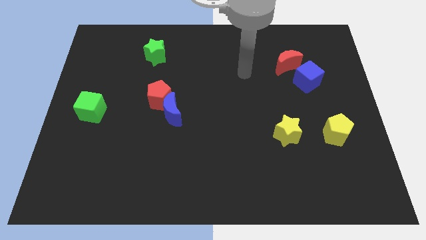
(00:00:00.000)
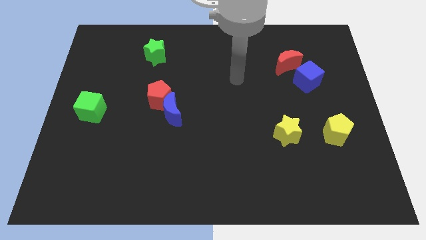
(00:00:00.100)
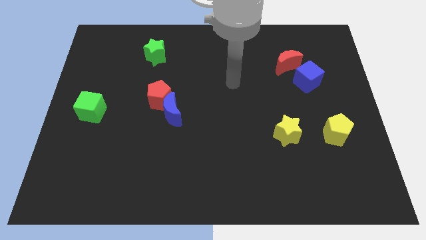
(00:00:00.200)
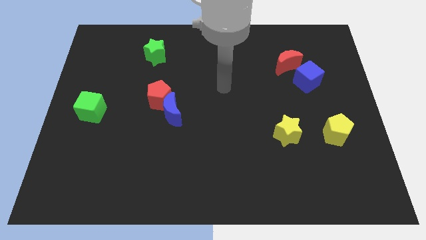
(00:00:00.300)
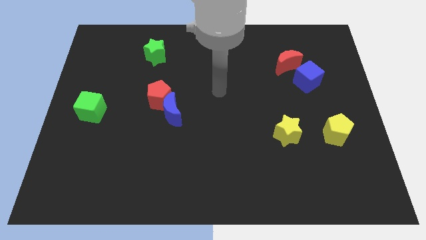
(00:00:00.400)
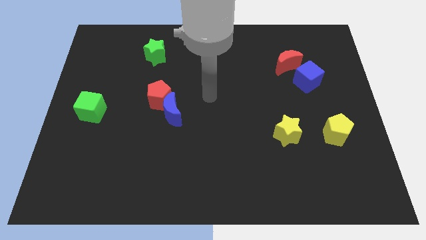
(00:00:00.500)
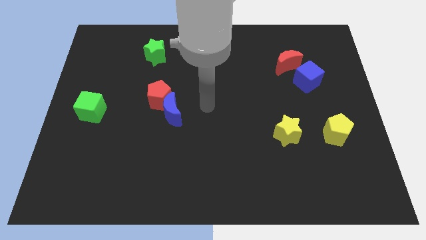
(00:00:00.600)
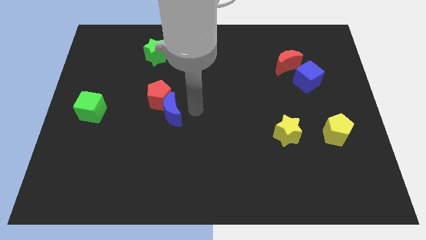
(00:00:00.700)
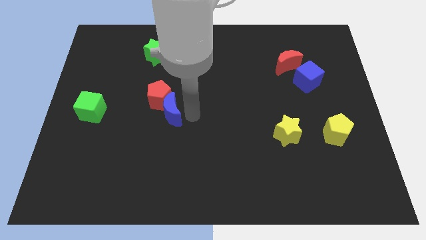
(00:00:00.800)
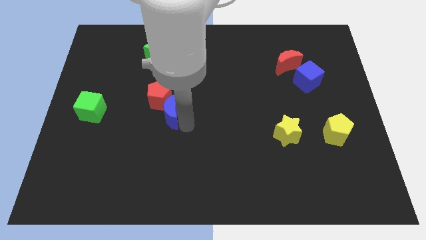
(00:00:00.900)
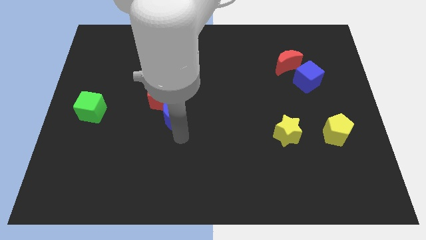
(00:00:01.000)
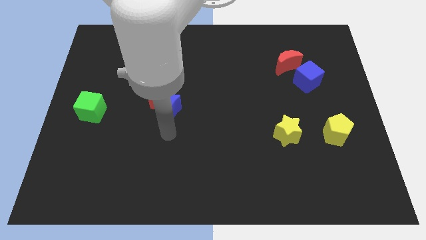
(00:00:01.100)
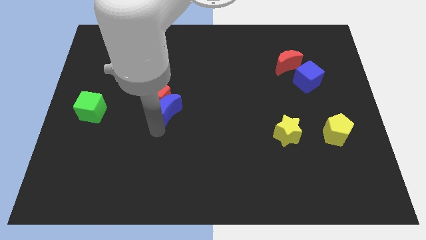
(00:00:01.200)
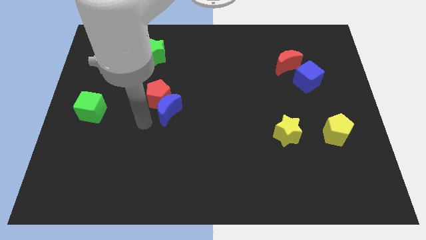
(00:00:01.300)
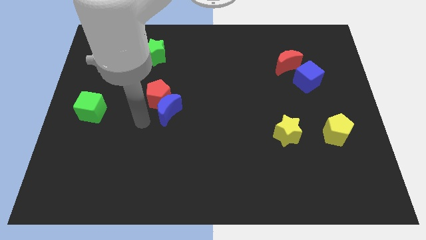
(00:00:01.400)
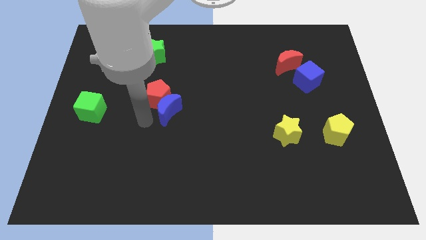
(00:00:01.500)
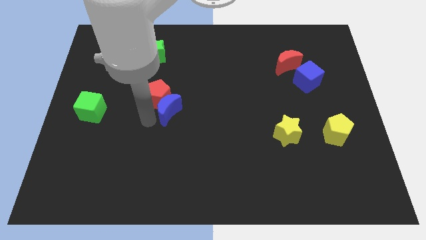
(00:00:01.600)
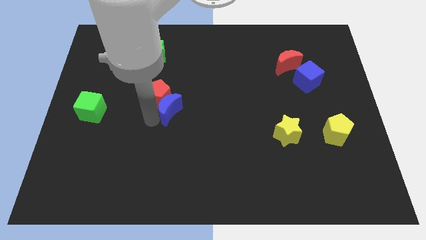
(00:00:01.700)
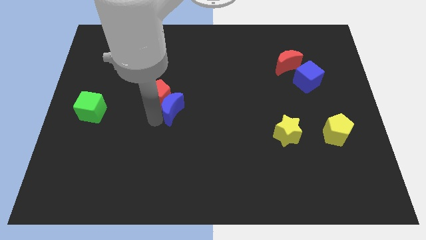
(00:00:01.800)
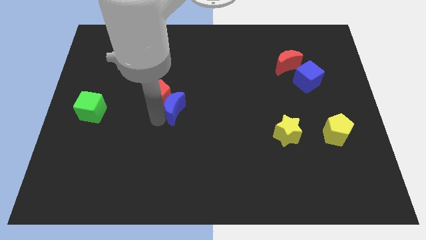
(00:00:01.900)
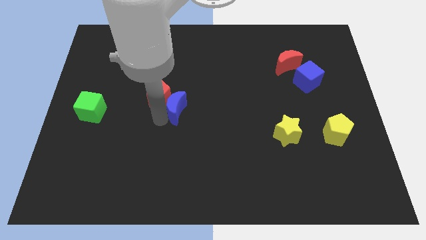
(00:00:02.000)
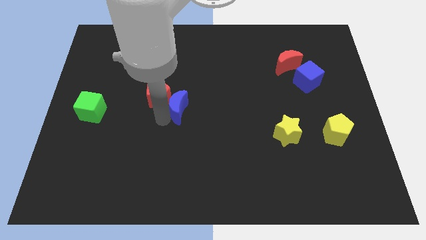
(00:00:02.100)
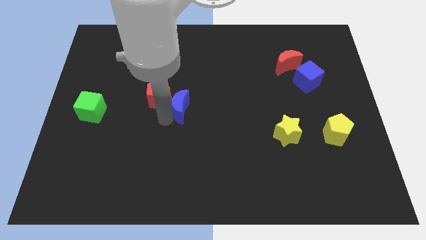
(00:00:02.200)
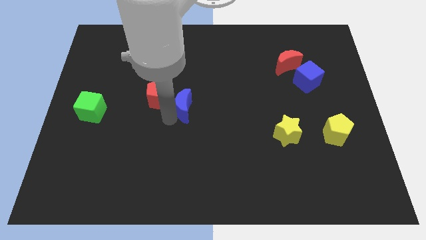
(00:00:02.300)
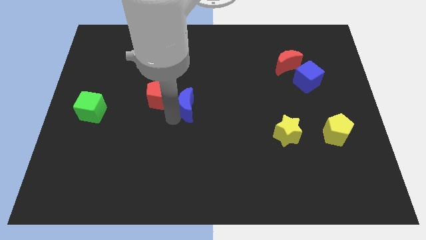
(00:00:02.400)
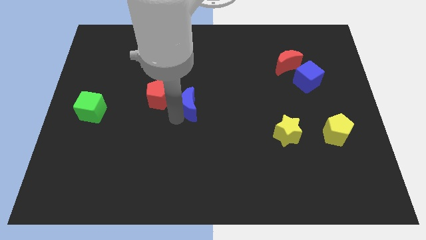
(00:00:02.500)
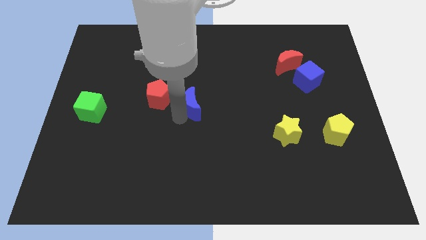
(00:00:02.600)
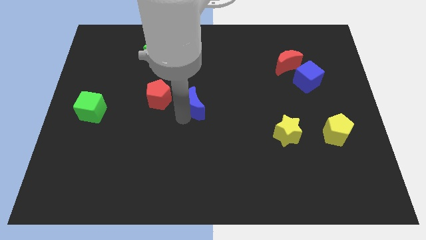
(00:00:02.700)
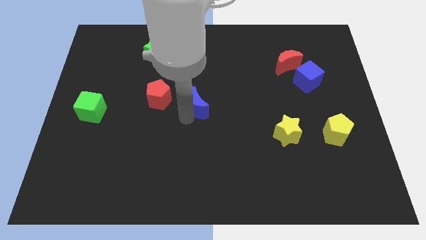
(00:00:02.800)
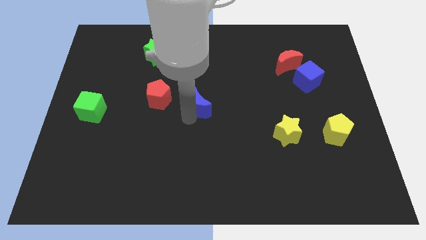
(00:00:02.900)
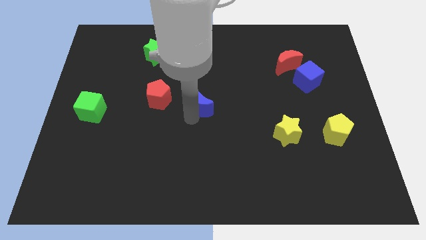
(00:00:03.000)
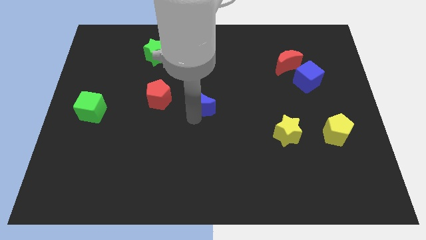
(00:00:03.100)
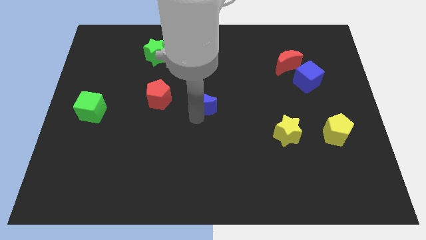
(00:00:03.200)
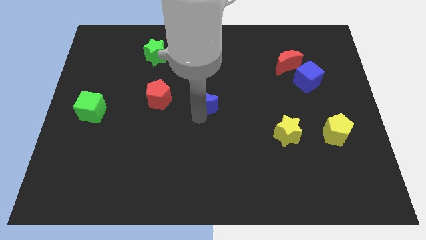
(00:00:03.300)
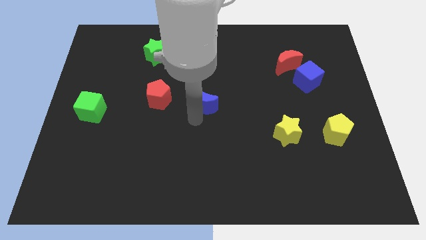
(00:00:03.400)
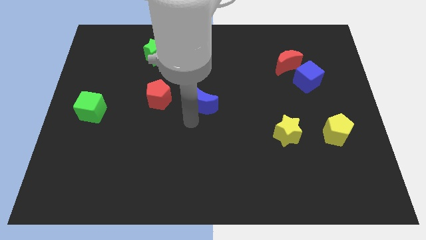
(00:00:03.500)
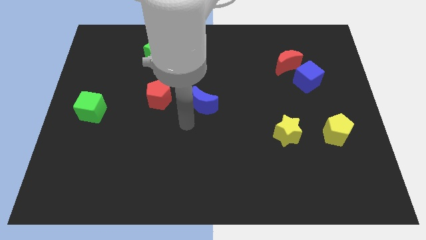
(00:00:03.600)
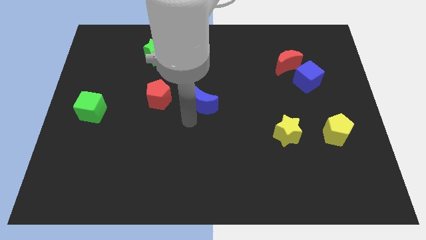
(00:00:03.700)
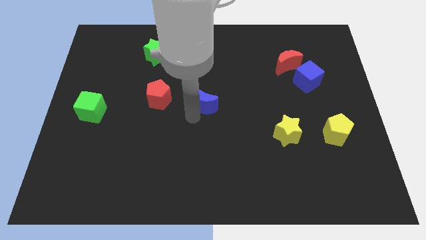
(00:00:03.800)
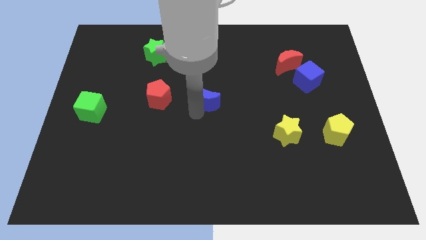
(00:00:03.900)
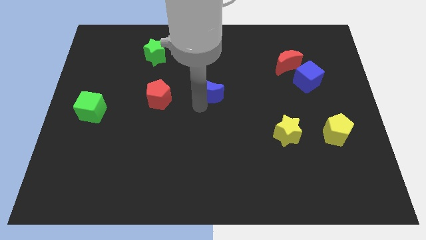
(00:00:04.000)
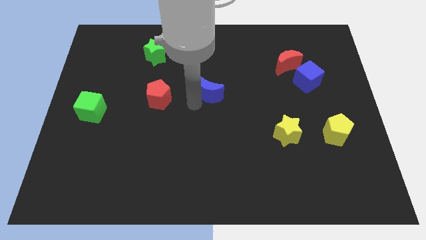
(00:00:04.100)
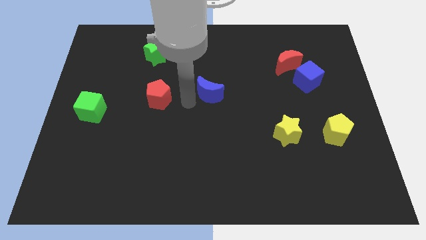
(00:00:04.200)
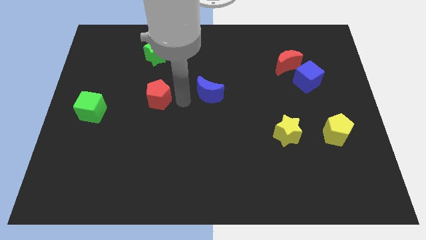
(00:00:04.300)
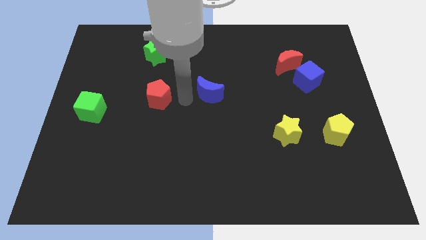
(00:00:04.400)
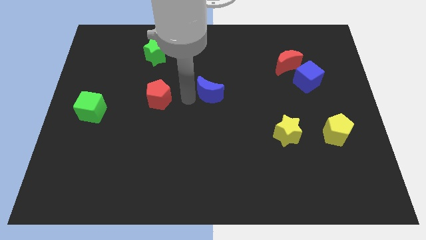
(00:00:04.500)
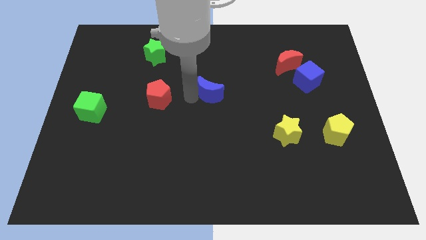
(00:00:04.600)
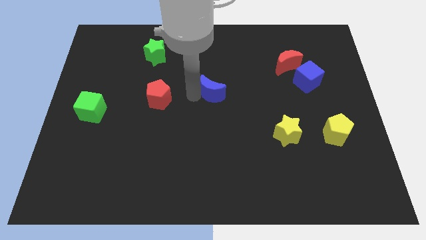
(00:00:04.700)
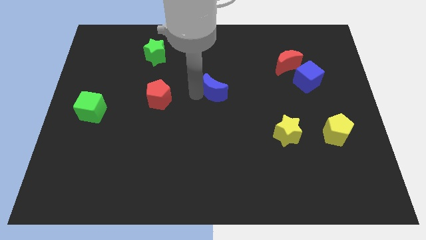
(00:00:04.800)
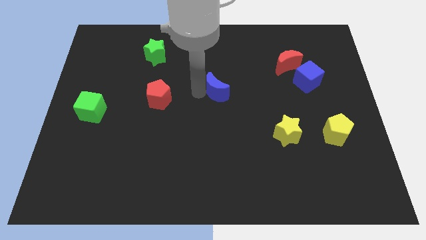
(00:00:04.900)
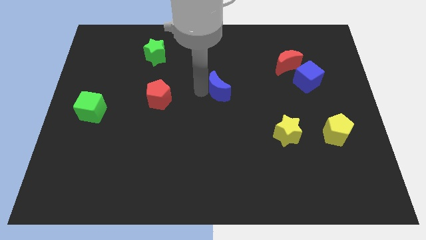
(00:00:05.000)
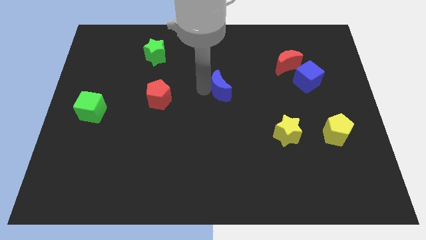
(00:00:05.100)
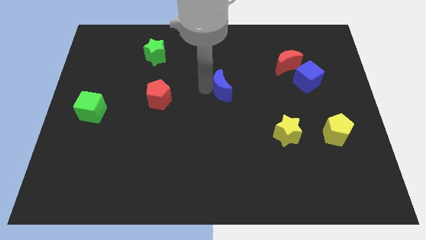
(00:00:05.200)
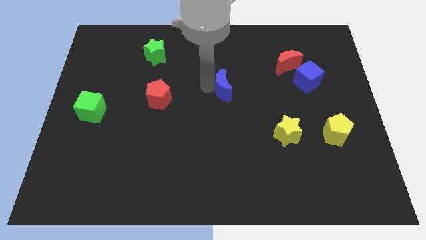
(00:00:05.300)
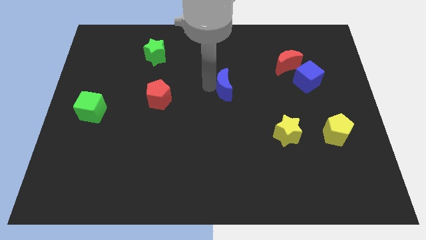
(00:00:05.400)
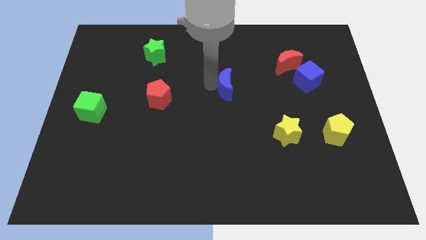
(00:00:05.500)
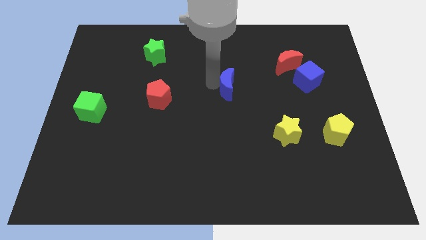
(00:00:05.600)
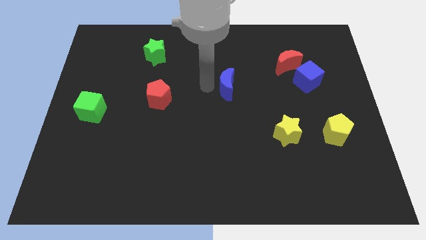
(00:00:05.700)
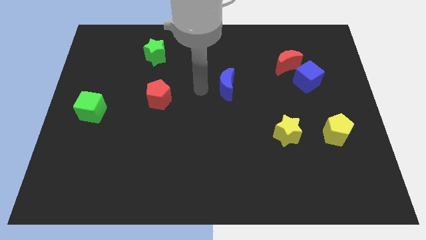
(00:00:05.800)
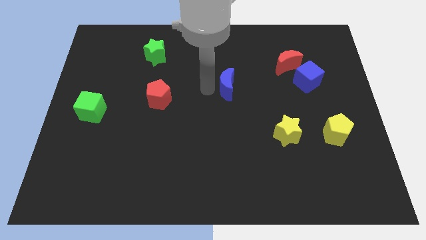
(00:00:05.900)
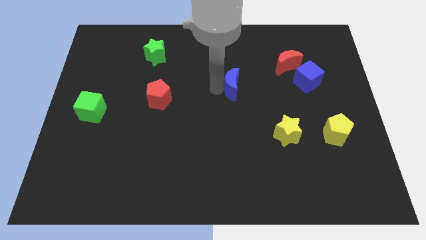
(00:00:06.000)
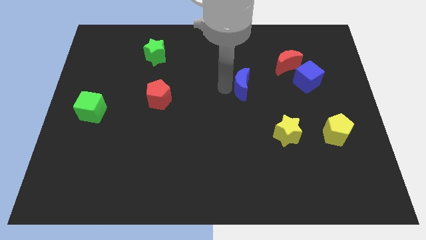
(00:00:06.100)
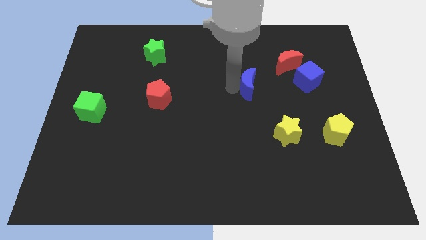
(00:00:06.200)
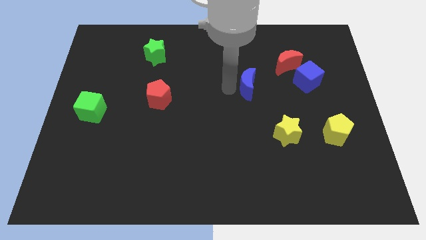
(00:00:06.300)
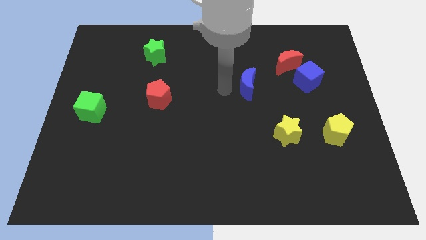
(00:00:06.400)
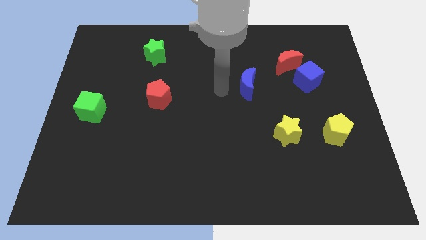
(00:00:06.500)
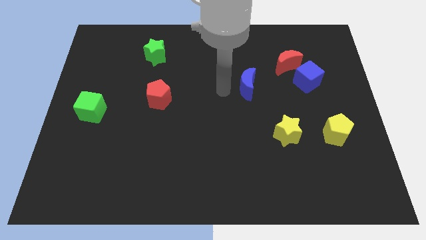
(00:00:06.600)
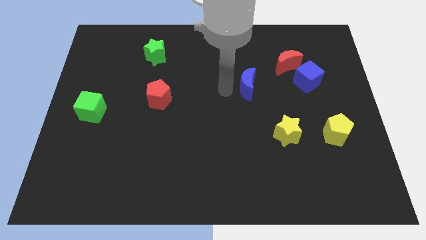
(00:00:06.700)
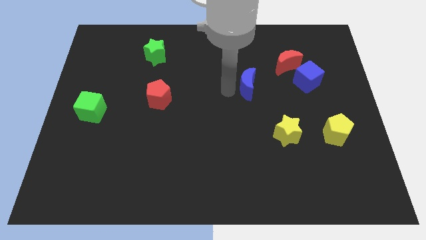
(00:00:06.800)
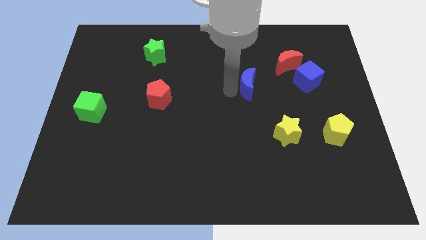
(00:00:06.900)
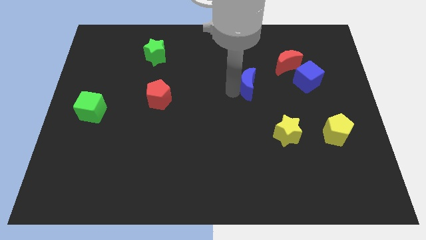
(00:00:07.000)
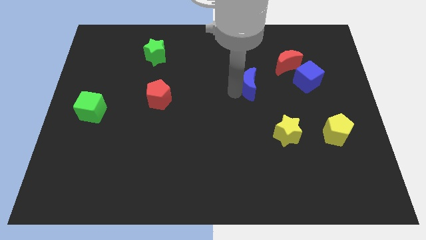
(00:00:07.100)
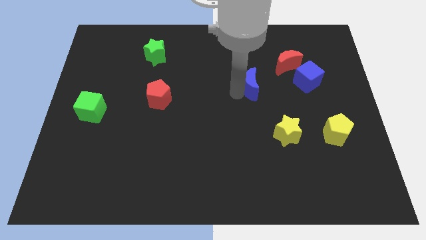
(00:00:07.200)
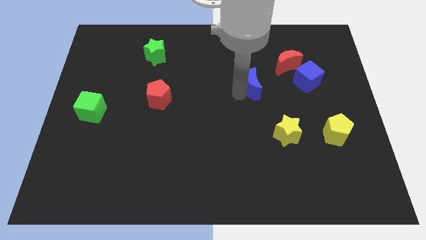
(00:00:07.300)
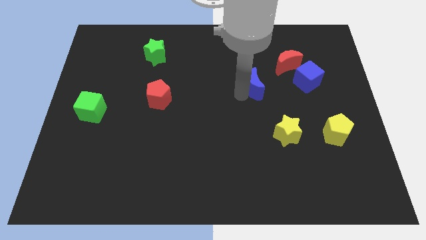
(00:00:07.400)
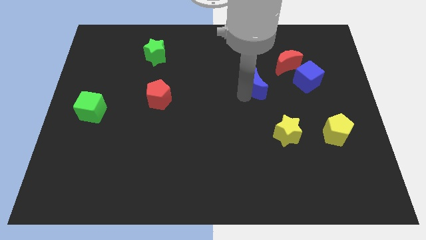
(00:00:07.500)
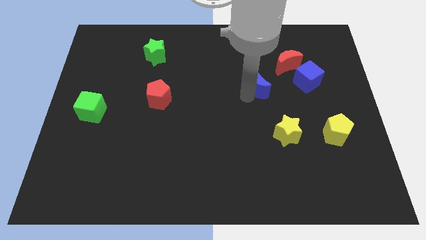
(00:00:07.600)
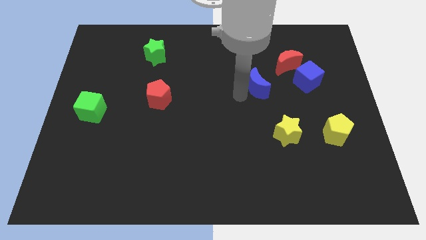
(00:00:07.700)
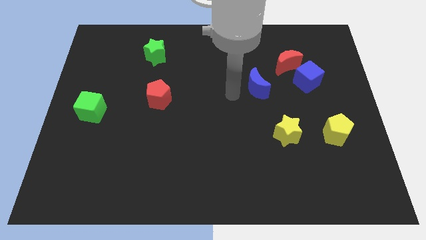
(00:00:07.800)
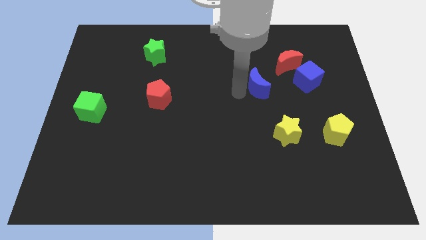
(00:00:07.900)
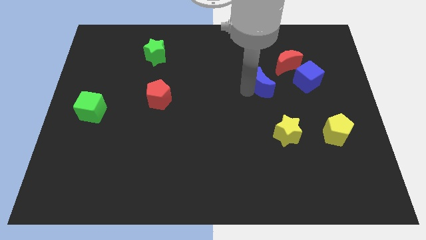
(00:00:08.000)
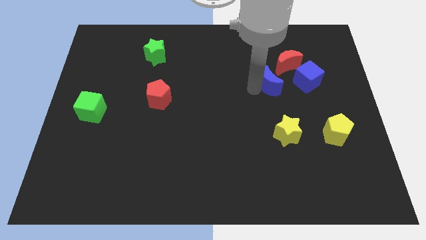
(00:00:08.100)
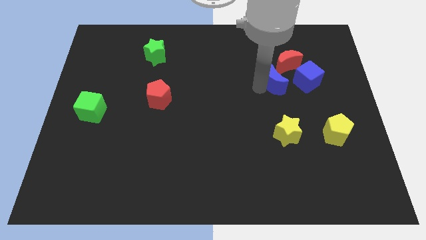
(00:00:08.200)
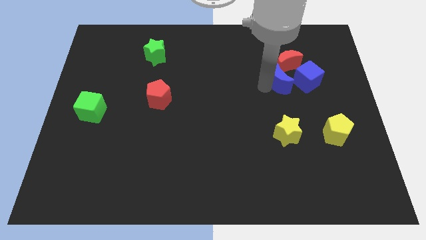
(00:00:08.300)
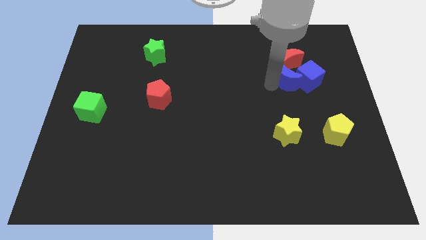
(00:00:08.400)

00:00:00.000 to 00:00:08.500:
push the blue moon towards the blue cube
